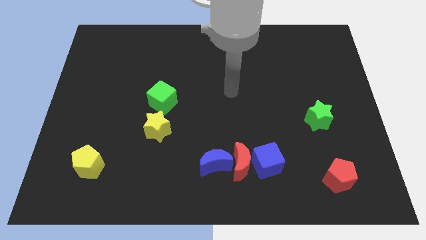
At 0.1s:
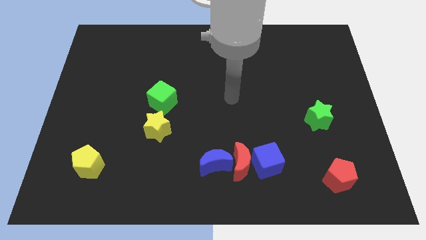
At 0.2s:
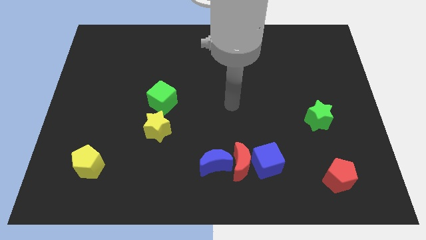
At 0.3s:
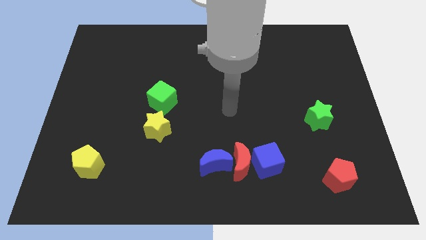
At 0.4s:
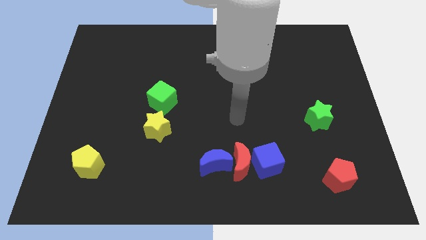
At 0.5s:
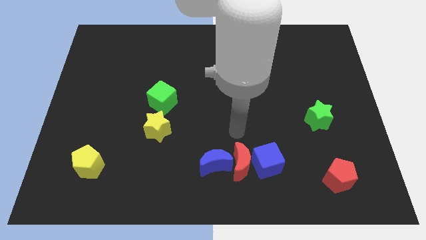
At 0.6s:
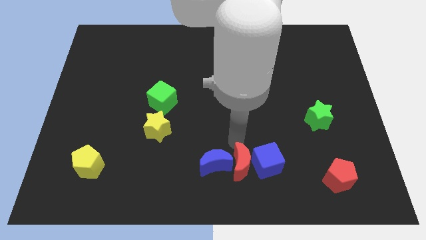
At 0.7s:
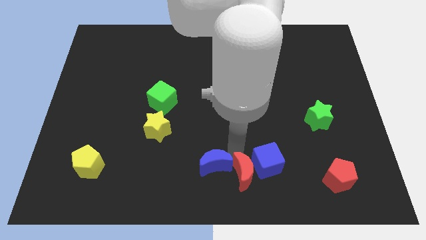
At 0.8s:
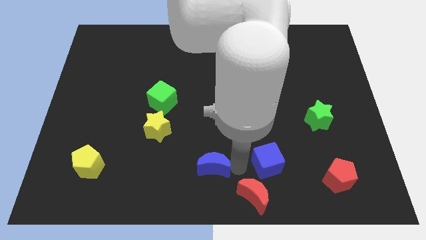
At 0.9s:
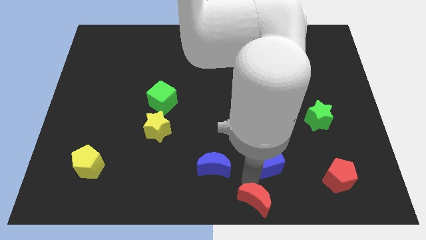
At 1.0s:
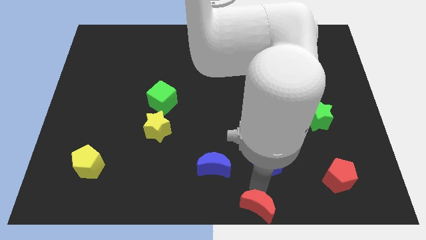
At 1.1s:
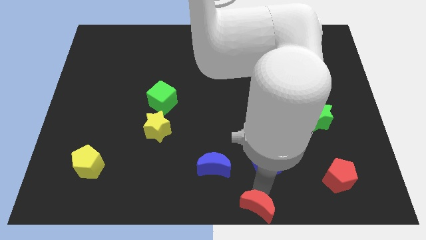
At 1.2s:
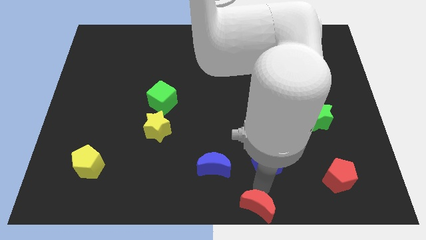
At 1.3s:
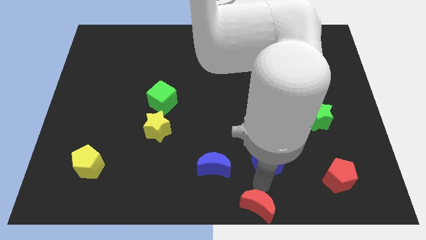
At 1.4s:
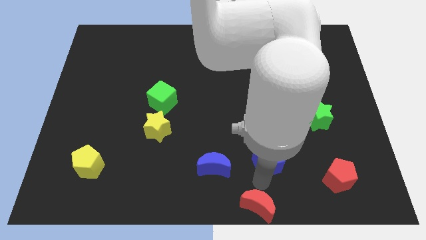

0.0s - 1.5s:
separate the blue cube from the red moon

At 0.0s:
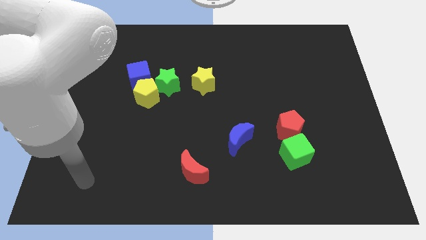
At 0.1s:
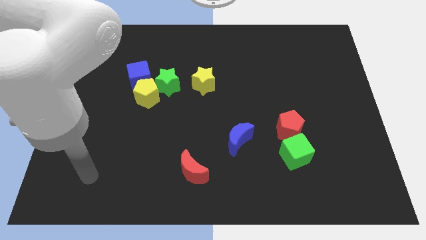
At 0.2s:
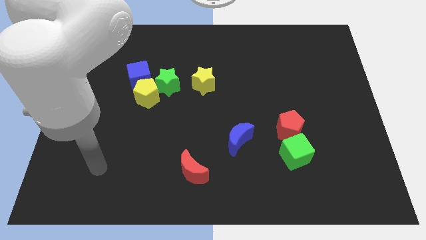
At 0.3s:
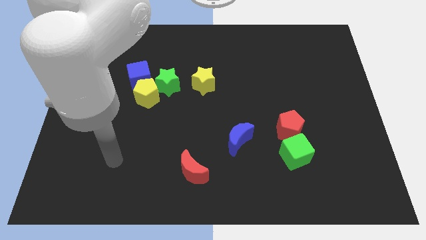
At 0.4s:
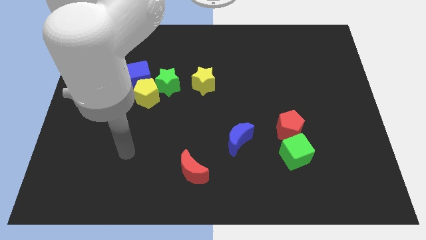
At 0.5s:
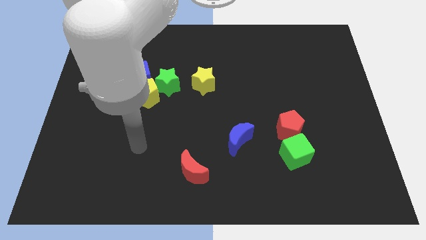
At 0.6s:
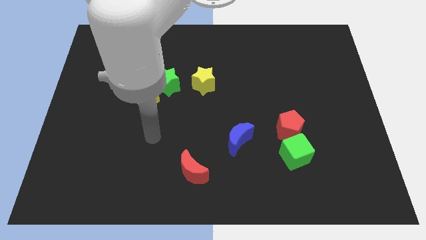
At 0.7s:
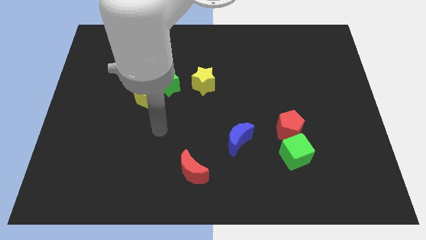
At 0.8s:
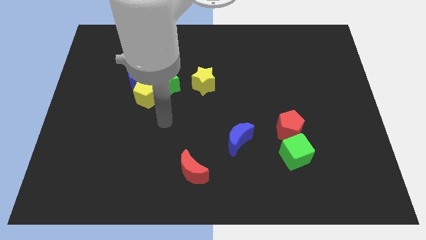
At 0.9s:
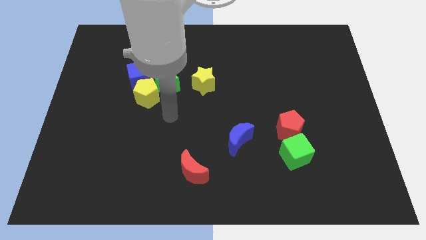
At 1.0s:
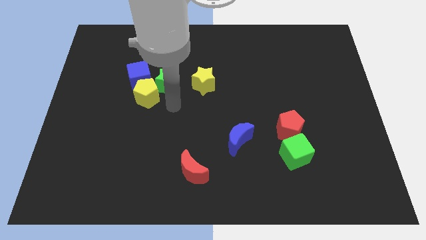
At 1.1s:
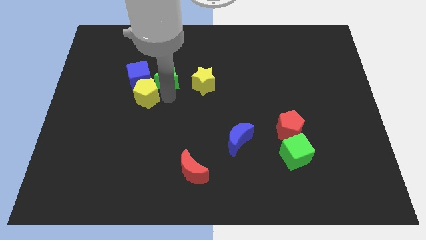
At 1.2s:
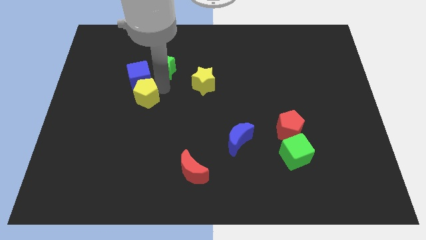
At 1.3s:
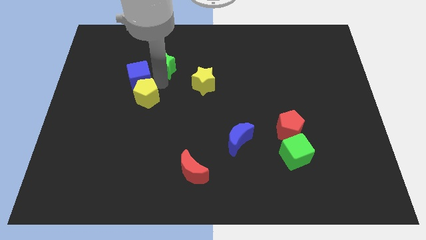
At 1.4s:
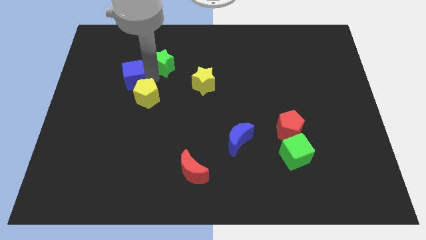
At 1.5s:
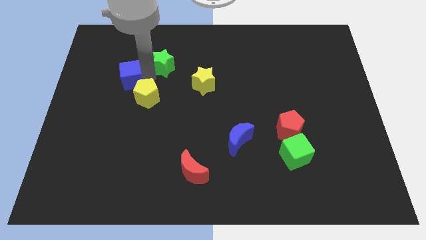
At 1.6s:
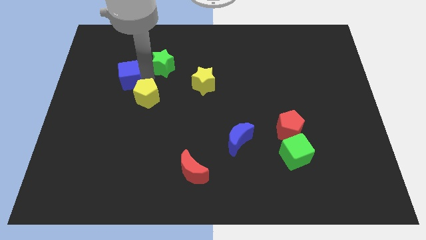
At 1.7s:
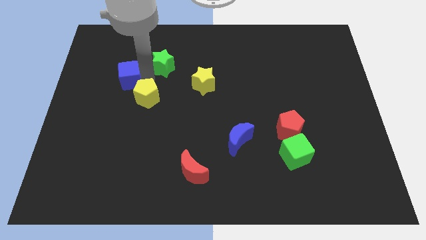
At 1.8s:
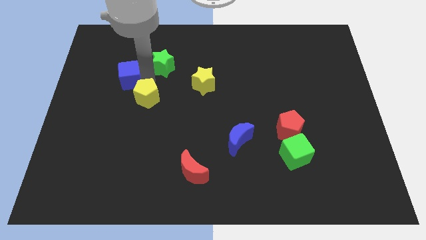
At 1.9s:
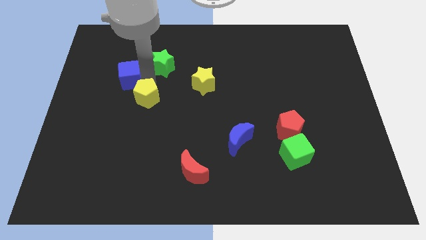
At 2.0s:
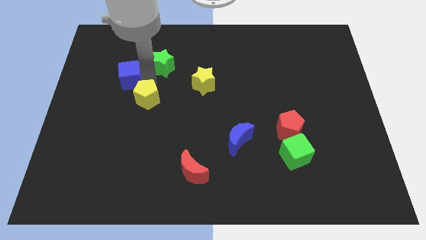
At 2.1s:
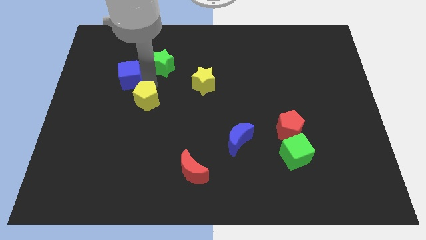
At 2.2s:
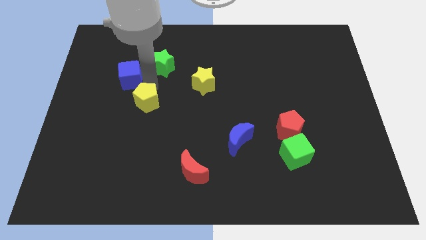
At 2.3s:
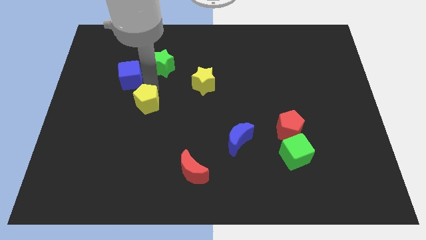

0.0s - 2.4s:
pull the yellow pentagon apart from the green star and blue cube

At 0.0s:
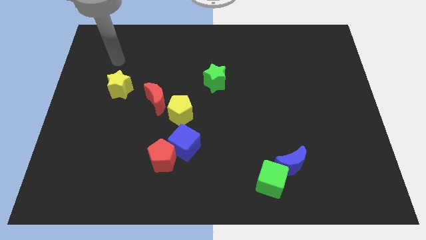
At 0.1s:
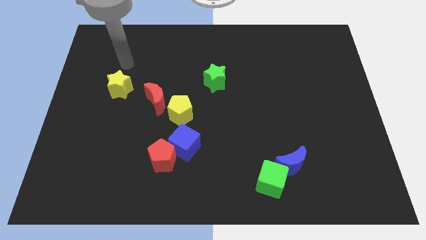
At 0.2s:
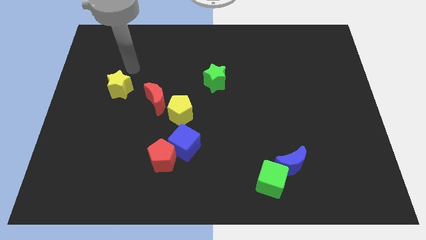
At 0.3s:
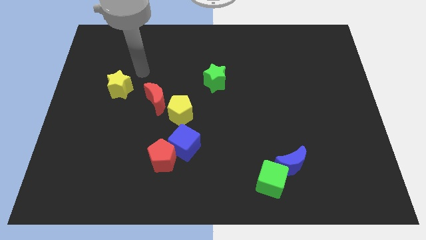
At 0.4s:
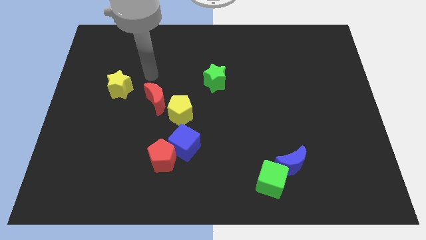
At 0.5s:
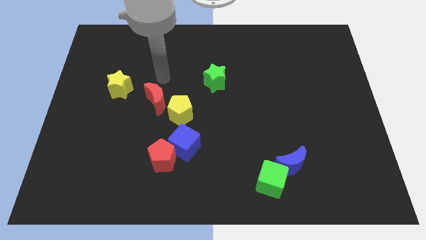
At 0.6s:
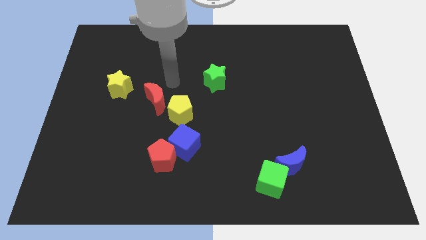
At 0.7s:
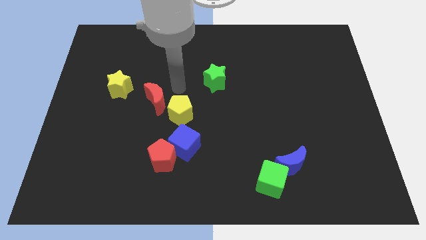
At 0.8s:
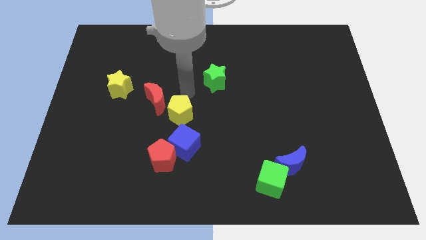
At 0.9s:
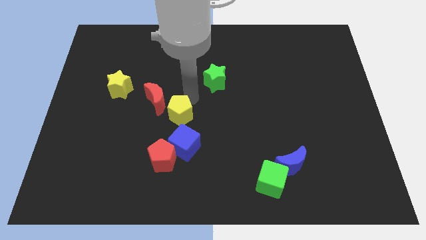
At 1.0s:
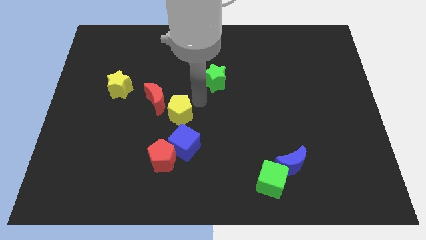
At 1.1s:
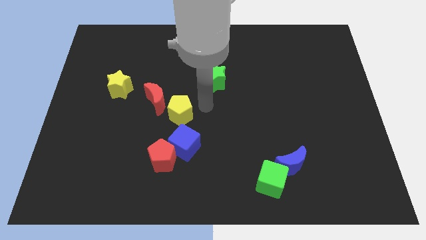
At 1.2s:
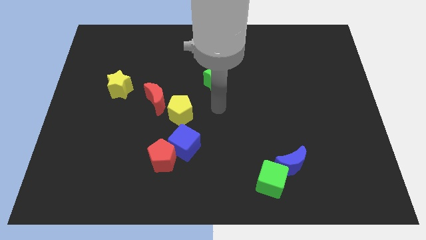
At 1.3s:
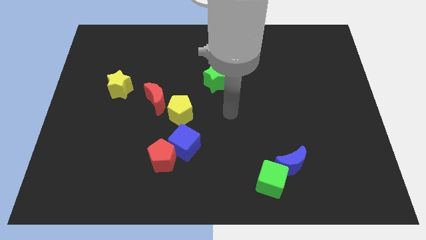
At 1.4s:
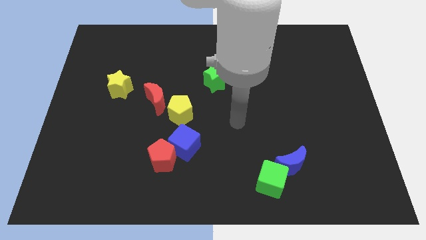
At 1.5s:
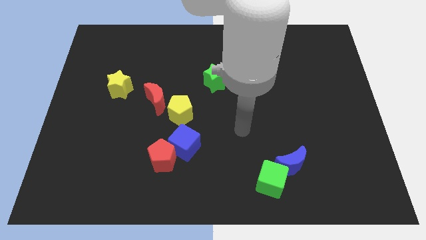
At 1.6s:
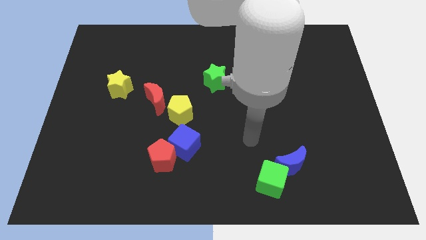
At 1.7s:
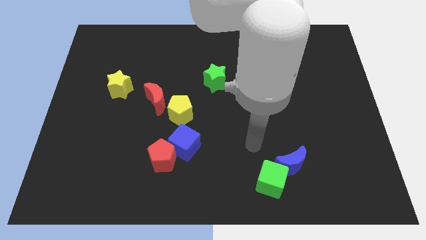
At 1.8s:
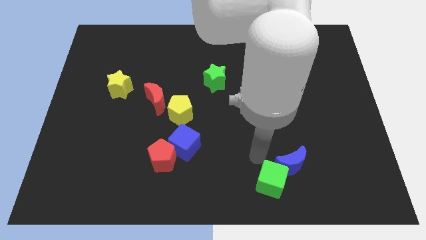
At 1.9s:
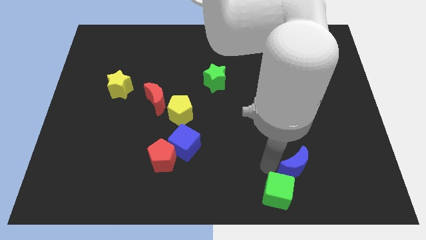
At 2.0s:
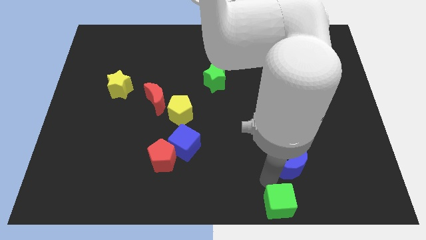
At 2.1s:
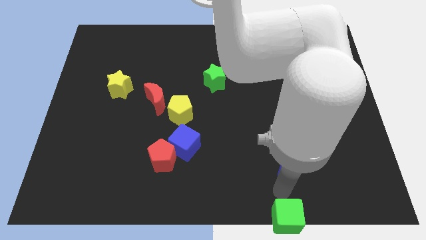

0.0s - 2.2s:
separate the blue moon from the green cube

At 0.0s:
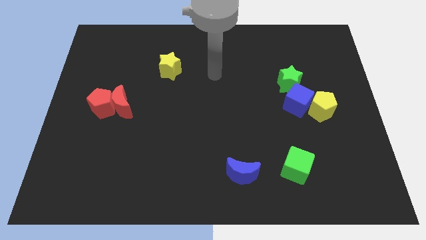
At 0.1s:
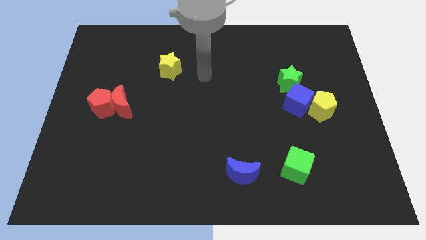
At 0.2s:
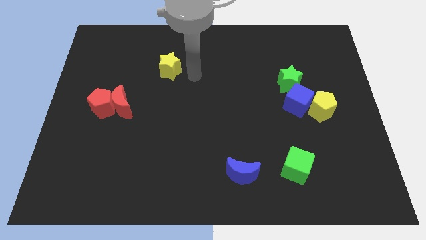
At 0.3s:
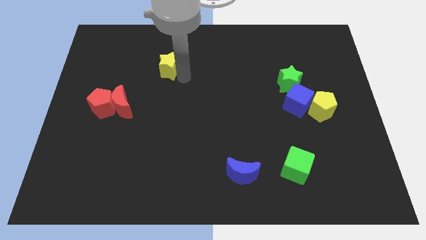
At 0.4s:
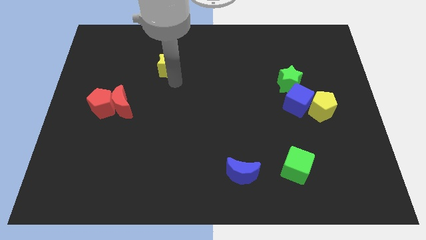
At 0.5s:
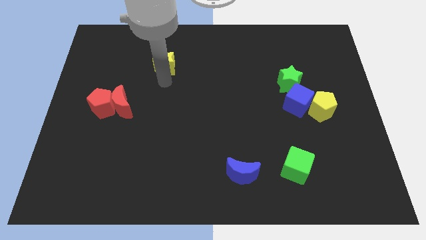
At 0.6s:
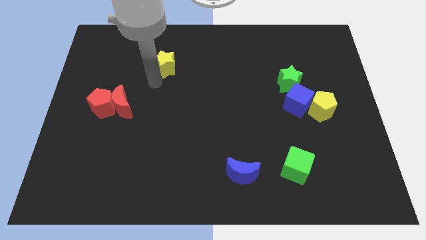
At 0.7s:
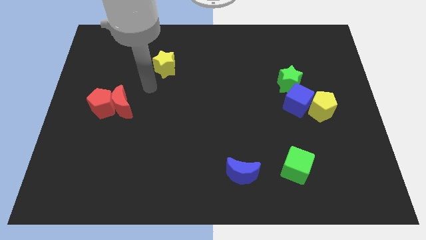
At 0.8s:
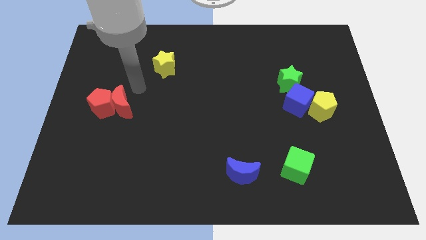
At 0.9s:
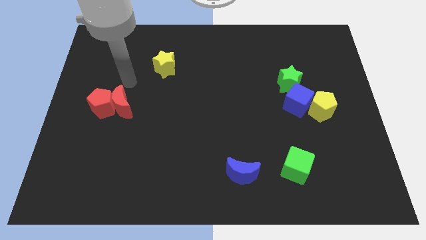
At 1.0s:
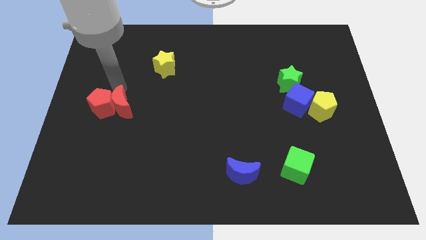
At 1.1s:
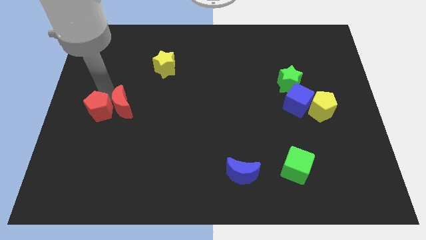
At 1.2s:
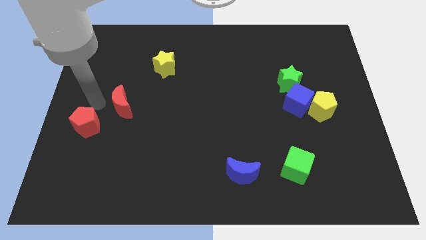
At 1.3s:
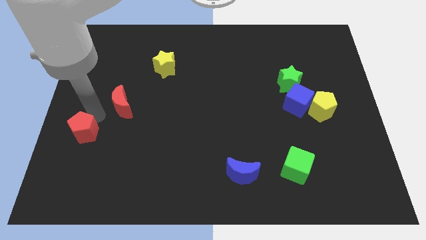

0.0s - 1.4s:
separate the red moon from the red pentagon

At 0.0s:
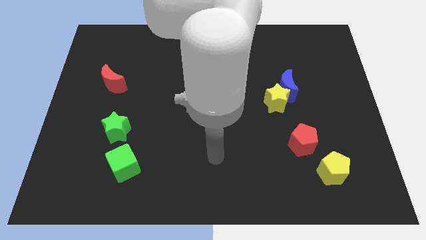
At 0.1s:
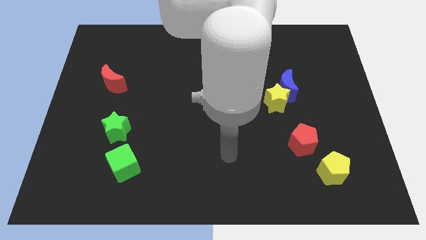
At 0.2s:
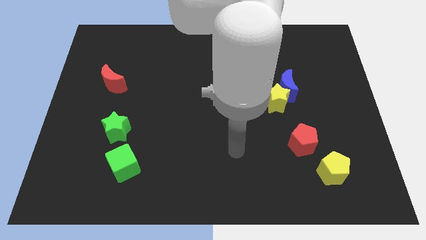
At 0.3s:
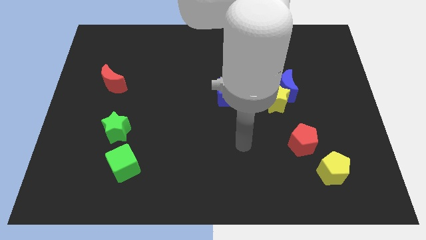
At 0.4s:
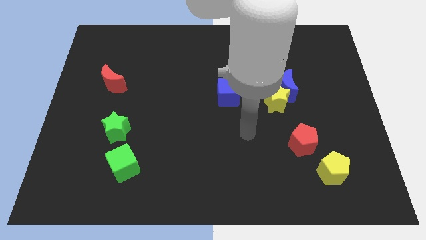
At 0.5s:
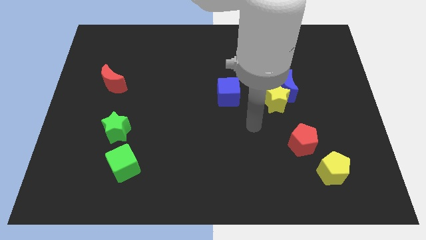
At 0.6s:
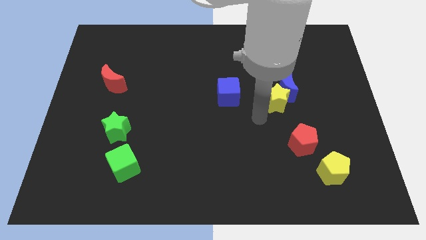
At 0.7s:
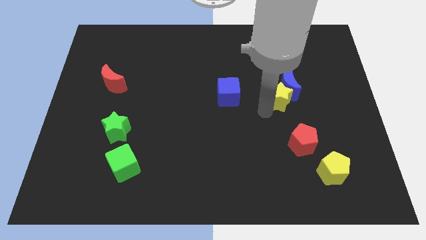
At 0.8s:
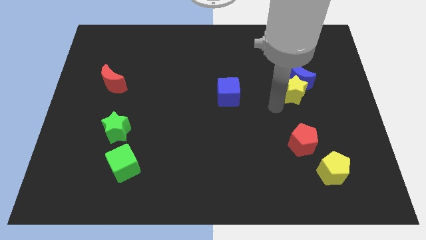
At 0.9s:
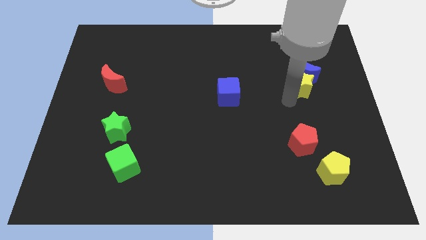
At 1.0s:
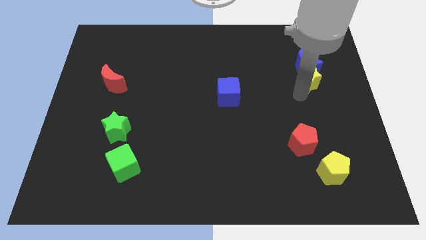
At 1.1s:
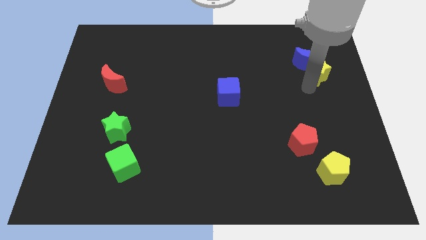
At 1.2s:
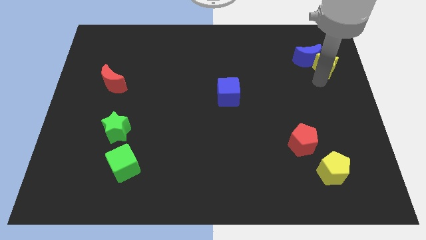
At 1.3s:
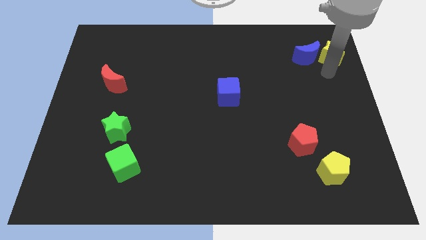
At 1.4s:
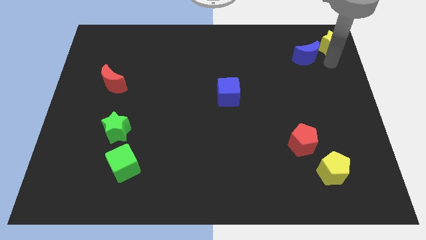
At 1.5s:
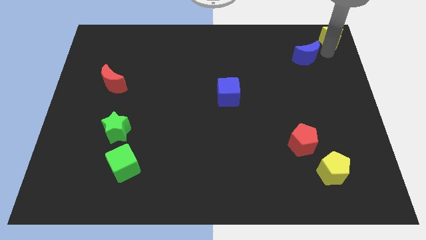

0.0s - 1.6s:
separate the blue moon from the yellow star

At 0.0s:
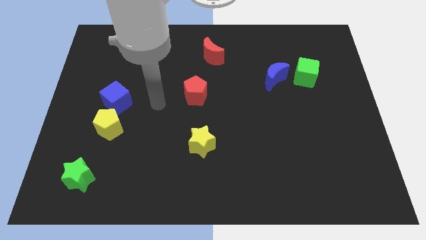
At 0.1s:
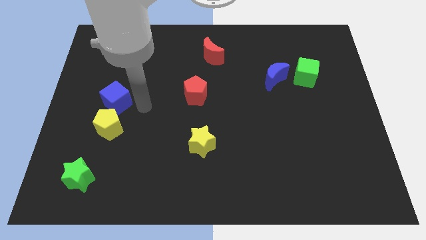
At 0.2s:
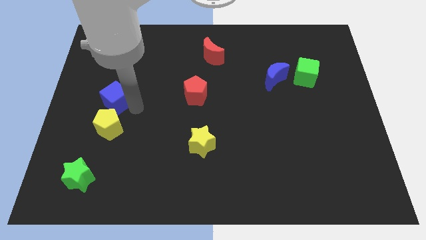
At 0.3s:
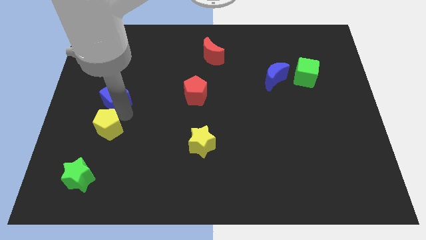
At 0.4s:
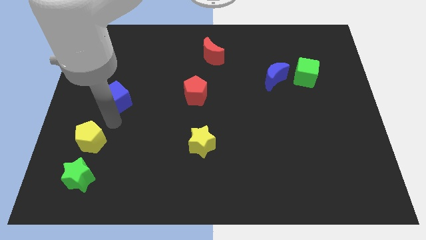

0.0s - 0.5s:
separate the blue cube from the yellow pentagon
